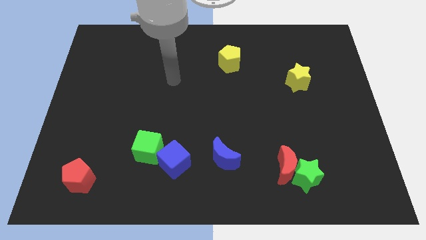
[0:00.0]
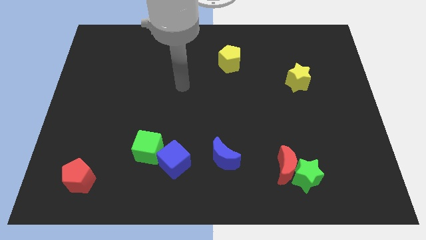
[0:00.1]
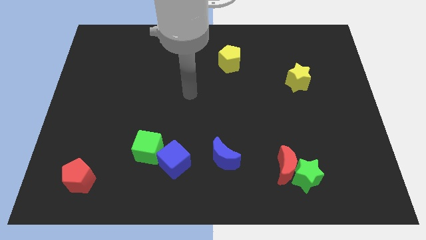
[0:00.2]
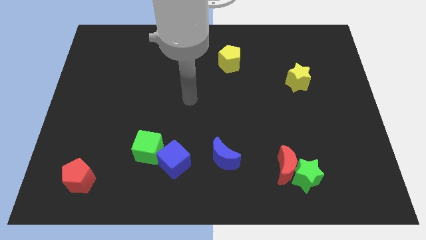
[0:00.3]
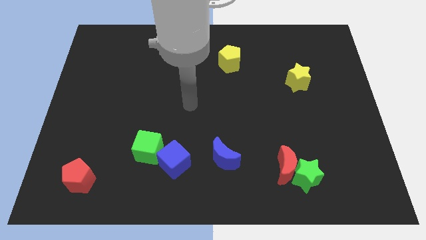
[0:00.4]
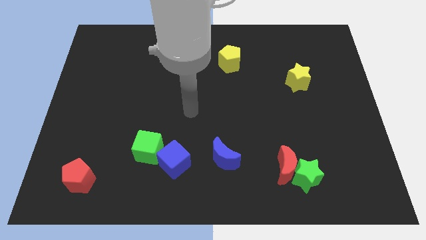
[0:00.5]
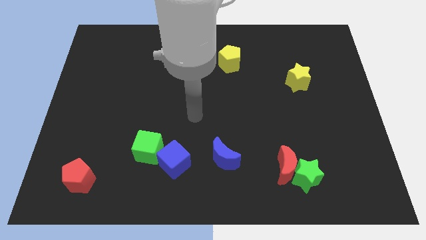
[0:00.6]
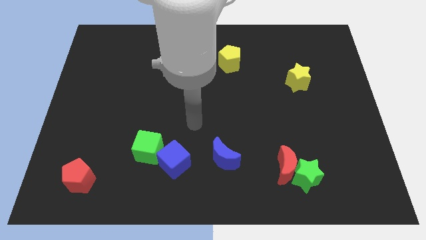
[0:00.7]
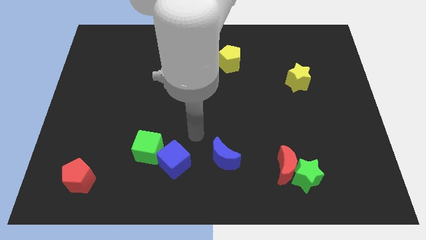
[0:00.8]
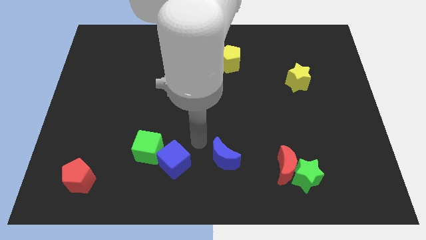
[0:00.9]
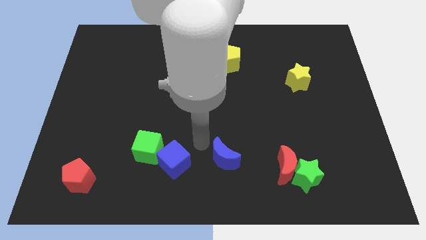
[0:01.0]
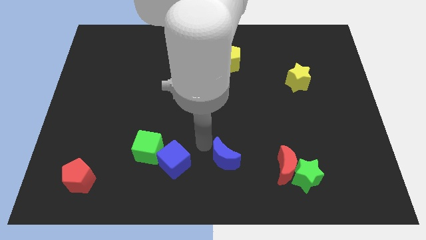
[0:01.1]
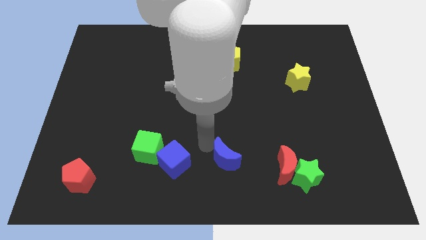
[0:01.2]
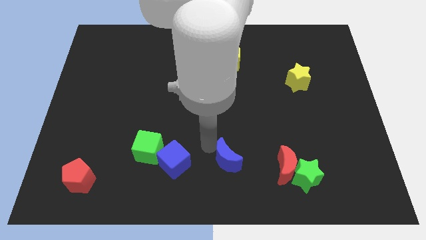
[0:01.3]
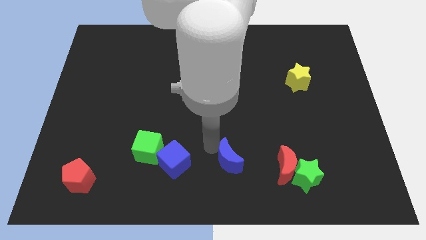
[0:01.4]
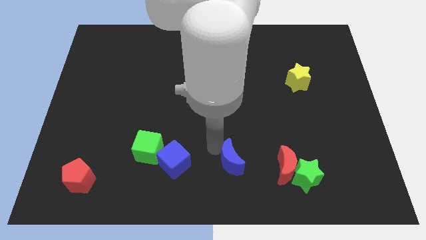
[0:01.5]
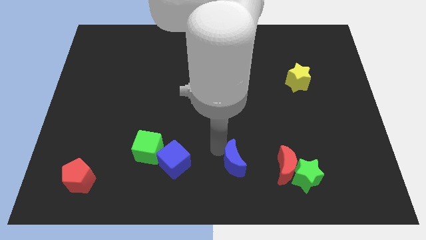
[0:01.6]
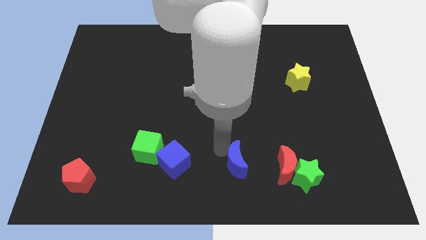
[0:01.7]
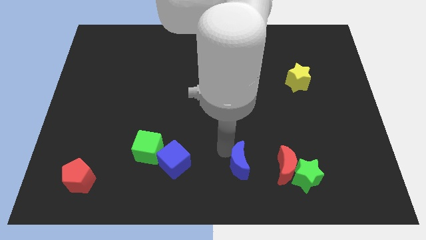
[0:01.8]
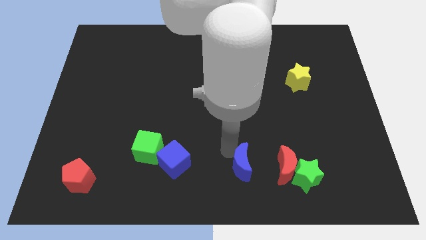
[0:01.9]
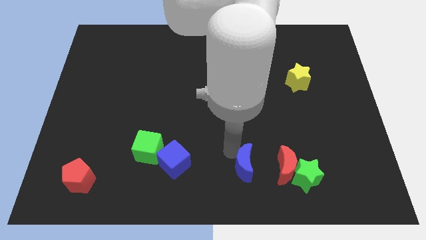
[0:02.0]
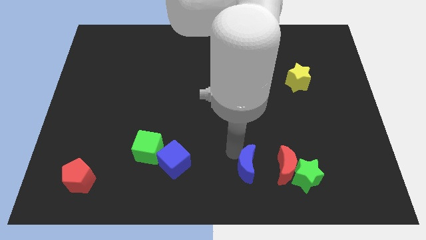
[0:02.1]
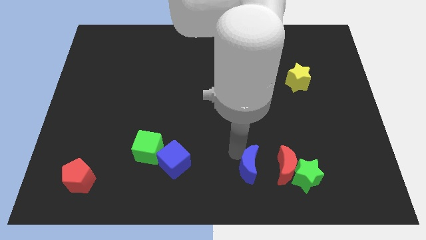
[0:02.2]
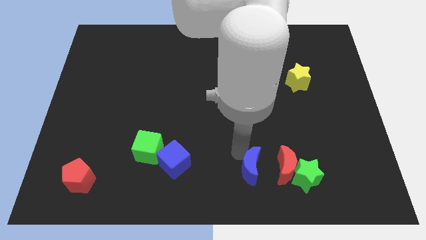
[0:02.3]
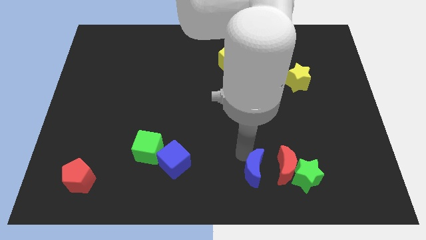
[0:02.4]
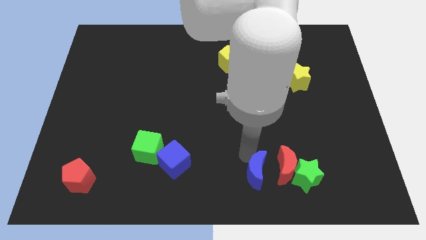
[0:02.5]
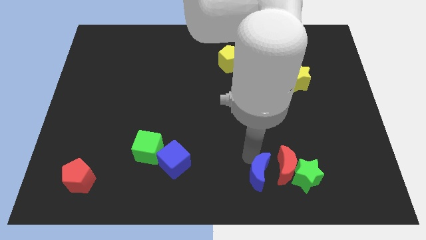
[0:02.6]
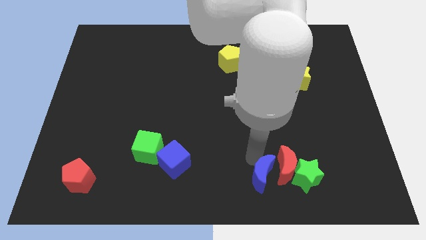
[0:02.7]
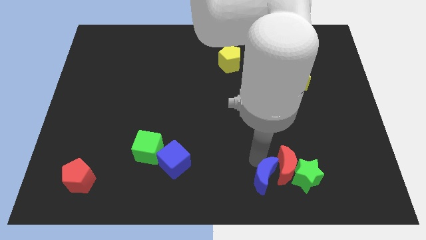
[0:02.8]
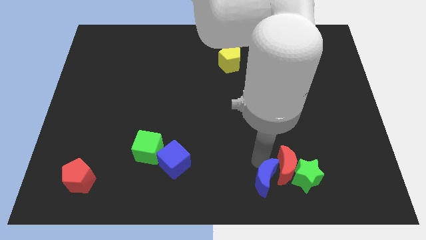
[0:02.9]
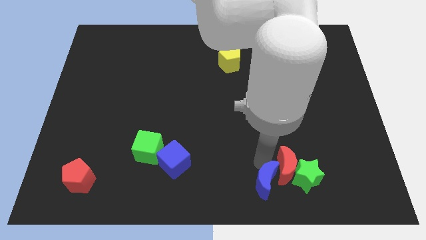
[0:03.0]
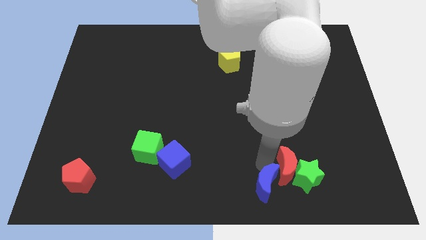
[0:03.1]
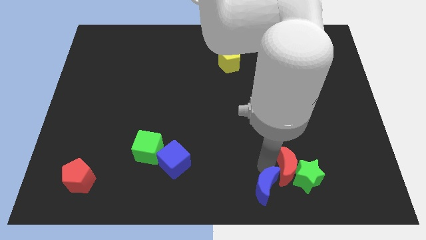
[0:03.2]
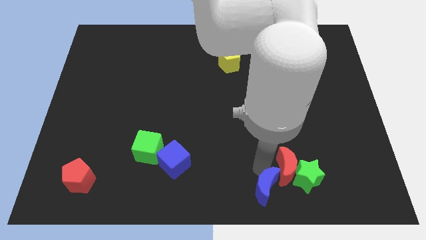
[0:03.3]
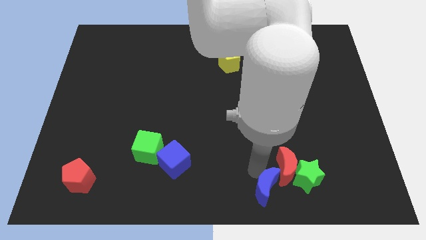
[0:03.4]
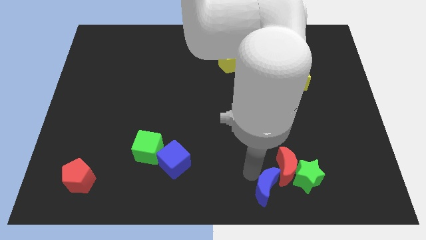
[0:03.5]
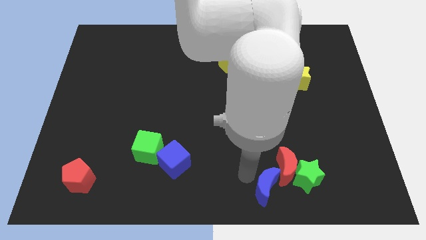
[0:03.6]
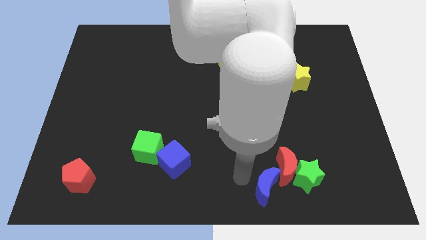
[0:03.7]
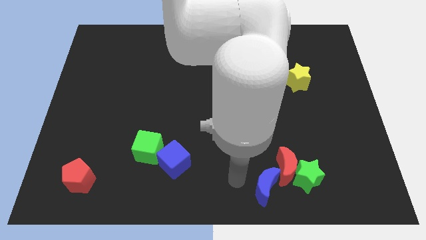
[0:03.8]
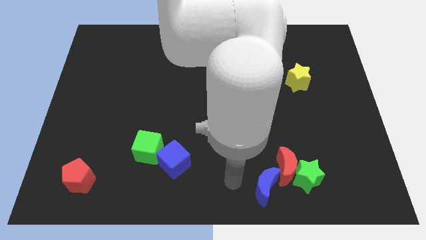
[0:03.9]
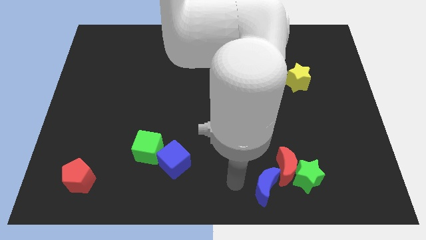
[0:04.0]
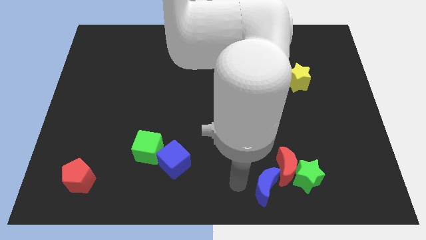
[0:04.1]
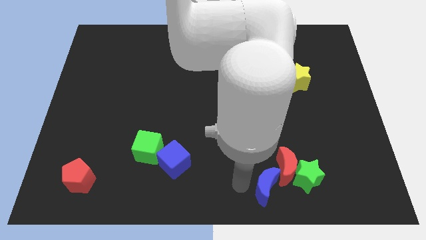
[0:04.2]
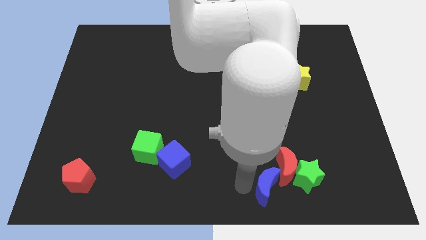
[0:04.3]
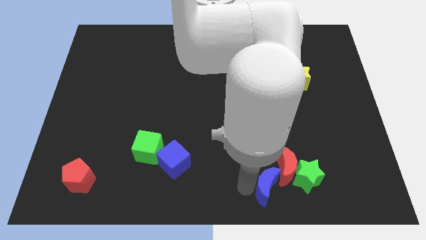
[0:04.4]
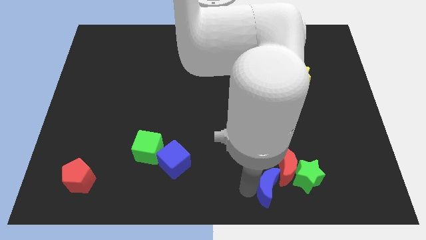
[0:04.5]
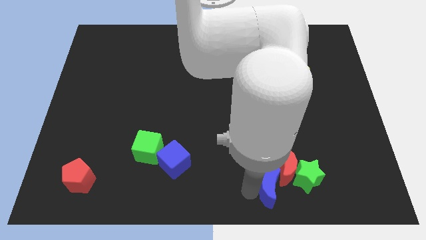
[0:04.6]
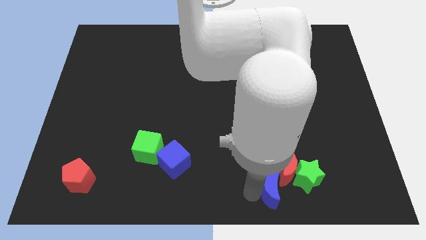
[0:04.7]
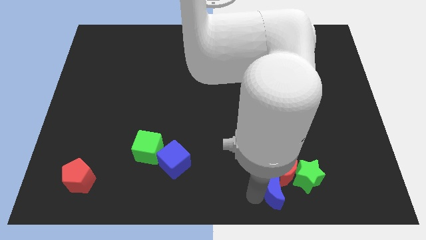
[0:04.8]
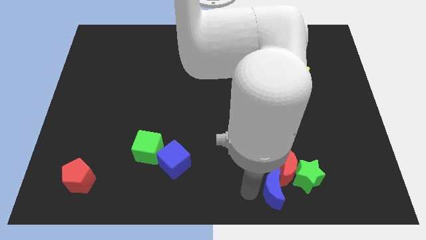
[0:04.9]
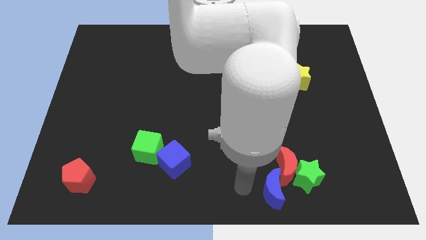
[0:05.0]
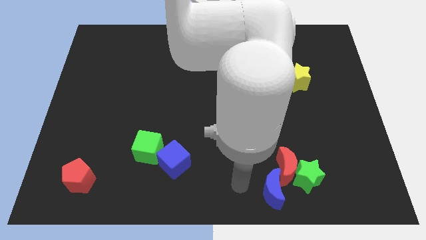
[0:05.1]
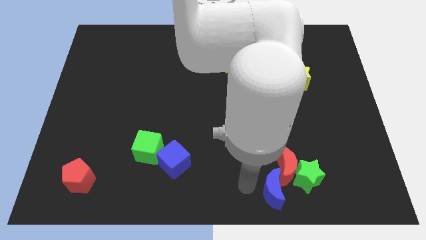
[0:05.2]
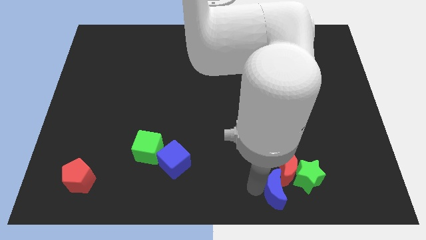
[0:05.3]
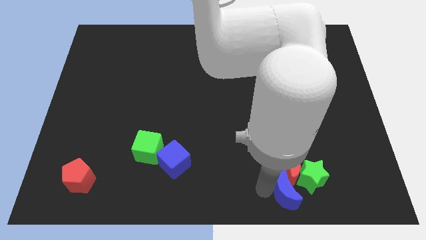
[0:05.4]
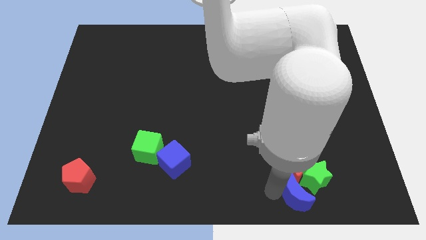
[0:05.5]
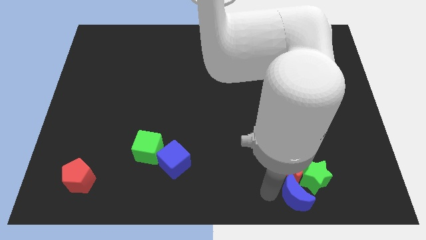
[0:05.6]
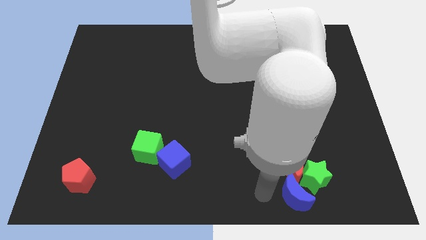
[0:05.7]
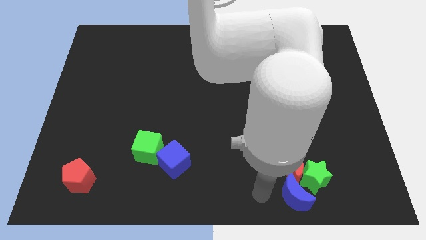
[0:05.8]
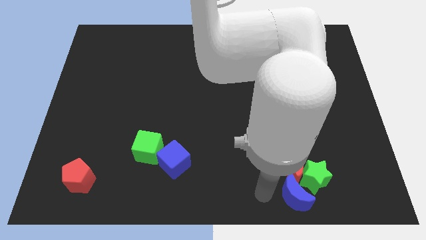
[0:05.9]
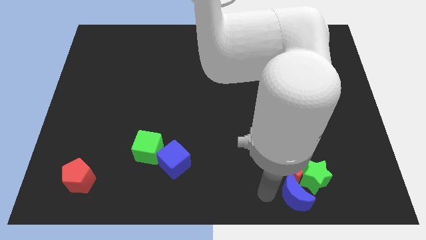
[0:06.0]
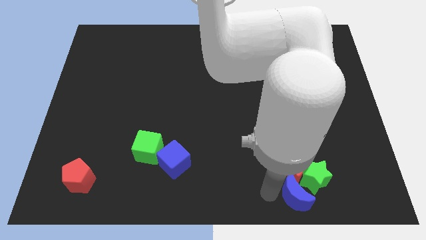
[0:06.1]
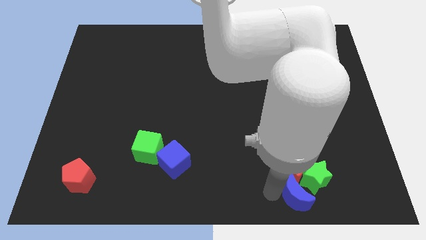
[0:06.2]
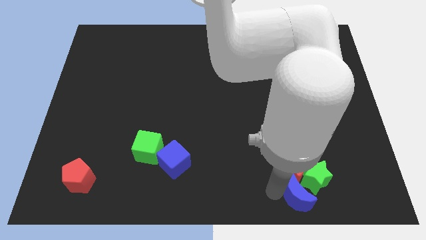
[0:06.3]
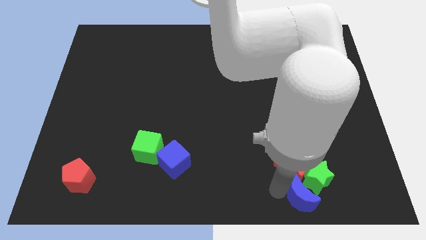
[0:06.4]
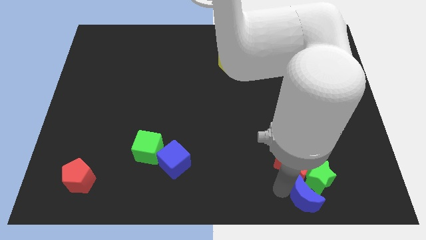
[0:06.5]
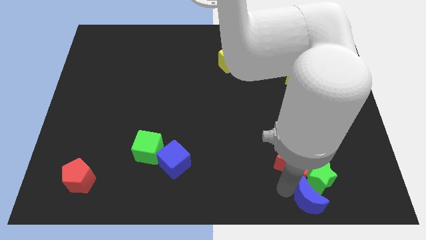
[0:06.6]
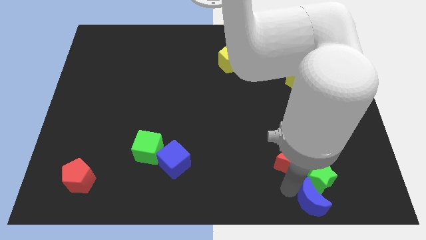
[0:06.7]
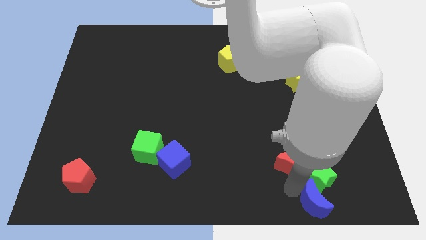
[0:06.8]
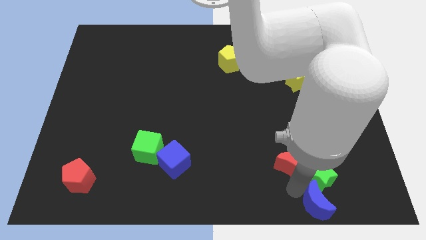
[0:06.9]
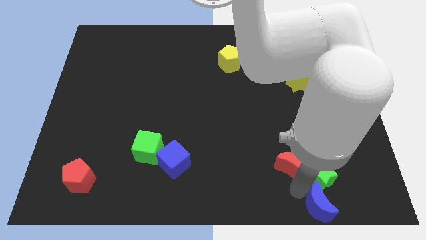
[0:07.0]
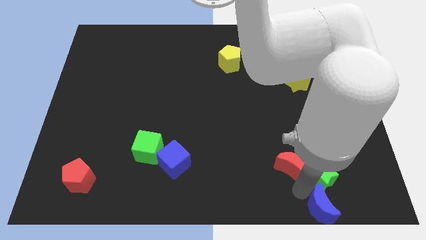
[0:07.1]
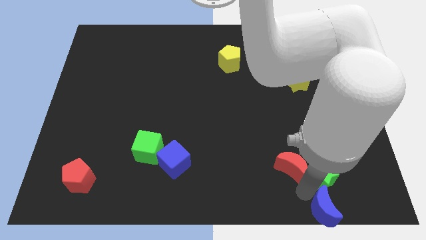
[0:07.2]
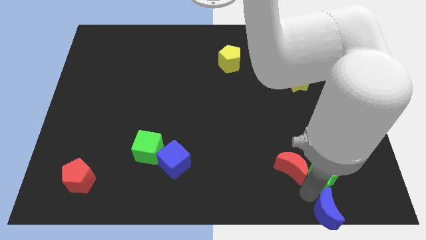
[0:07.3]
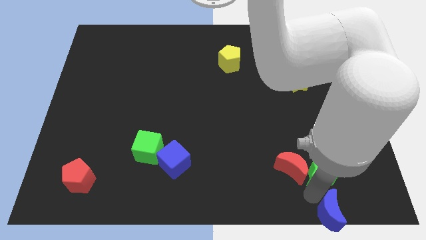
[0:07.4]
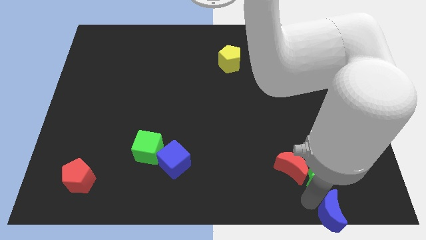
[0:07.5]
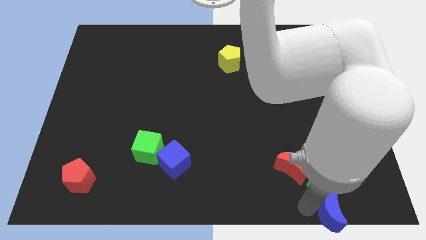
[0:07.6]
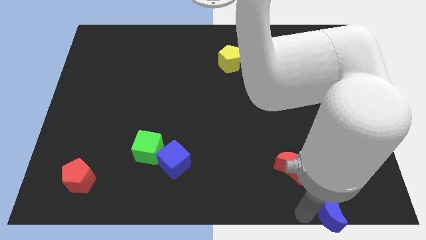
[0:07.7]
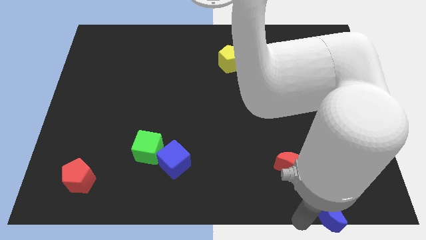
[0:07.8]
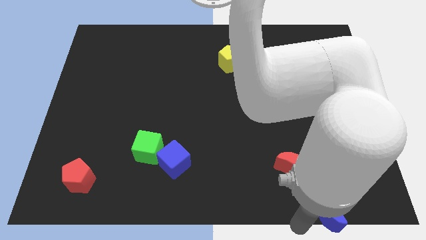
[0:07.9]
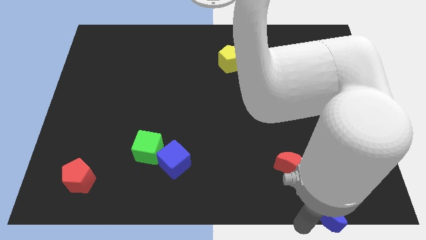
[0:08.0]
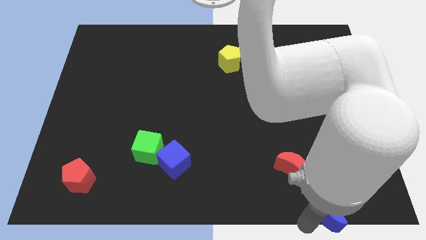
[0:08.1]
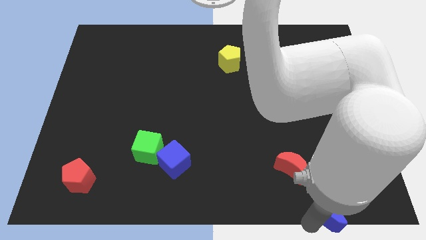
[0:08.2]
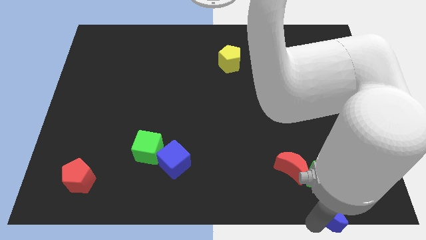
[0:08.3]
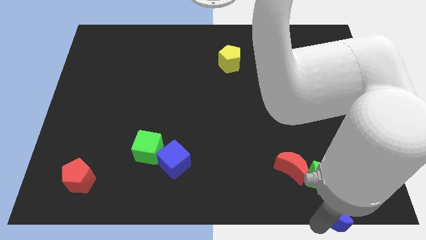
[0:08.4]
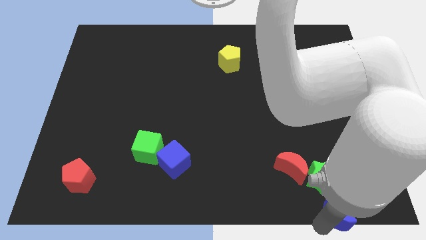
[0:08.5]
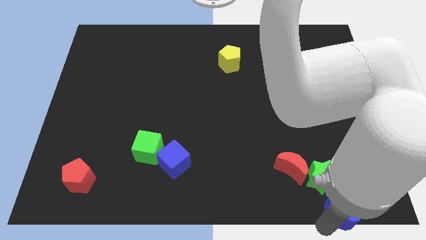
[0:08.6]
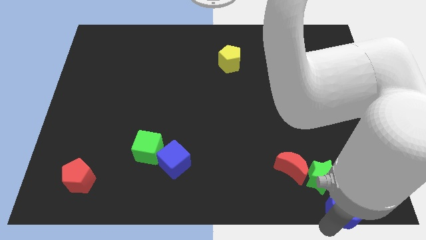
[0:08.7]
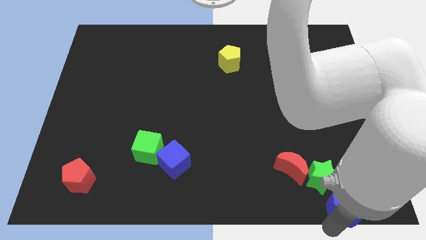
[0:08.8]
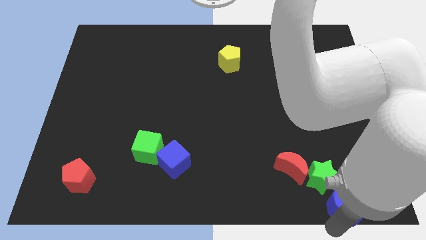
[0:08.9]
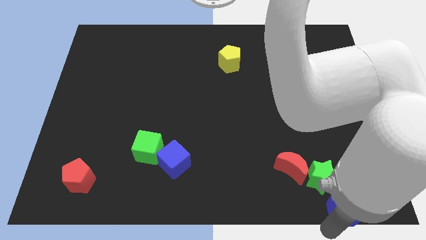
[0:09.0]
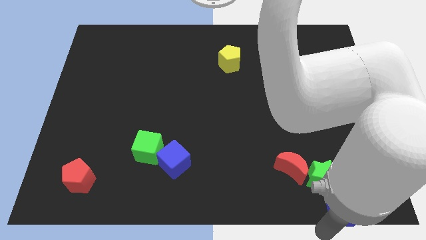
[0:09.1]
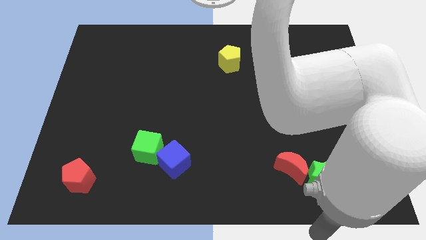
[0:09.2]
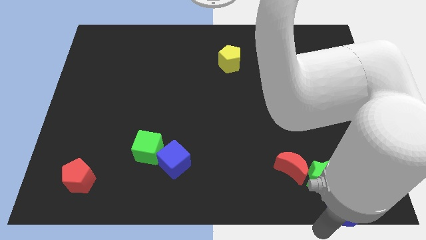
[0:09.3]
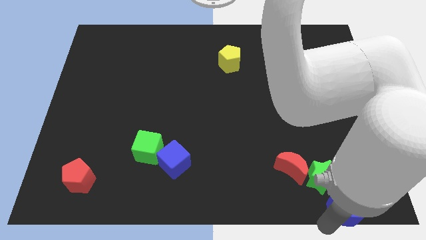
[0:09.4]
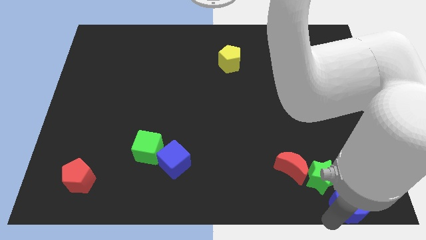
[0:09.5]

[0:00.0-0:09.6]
slide the blue moon to the bottom right corner
